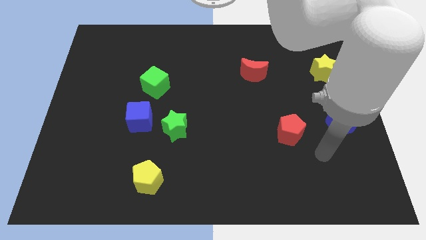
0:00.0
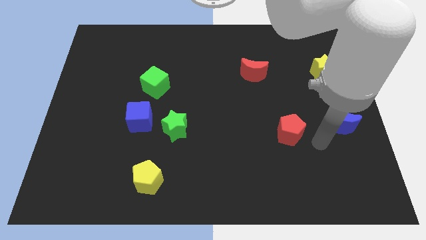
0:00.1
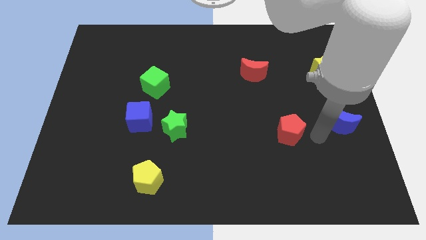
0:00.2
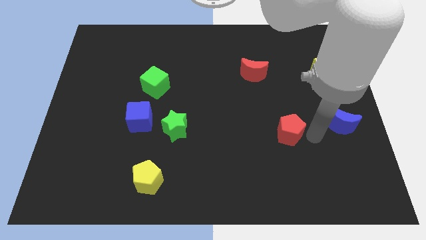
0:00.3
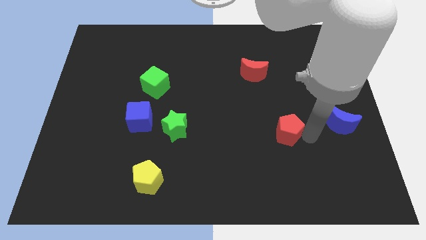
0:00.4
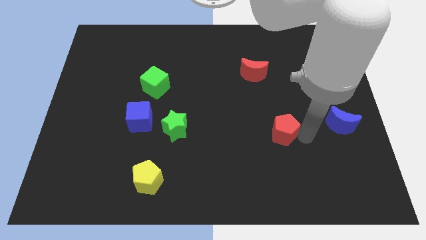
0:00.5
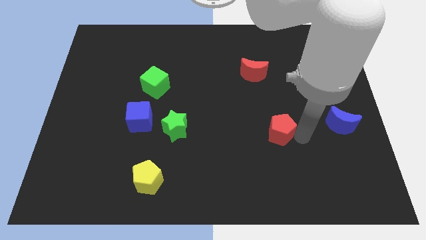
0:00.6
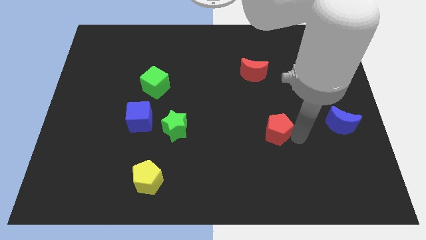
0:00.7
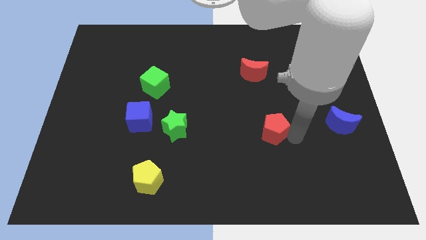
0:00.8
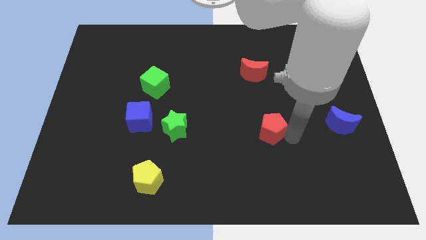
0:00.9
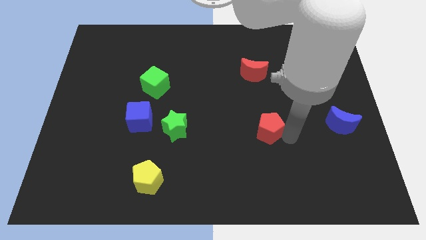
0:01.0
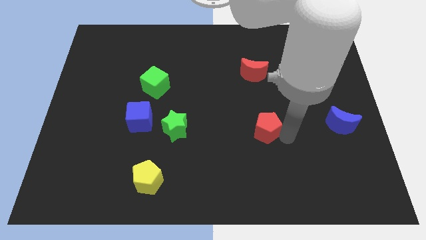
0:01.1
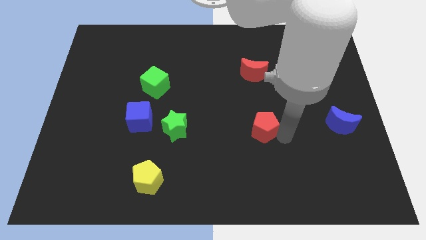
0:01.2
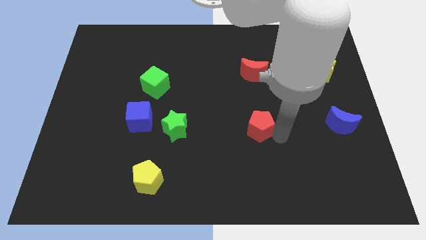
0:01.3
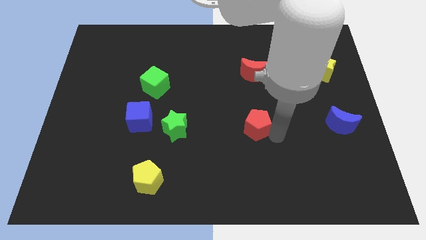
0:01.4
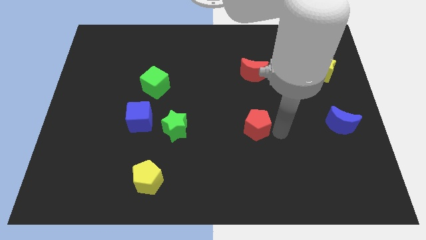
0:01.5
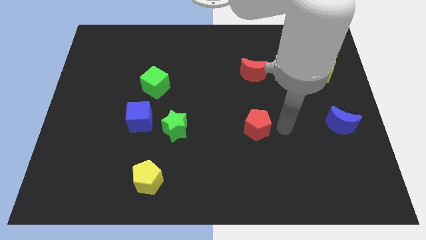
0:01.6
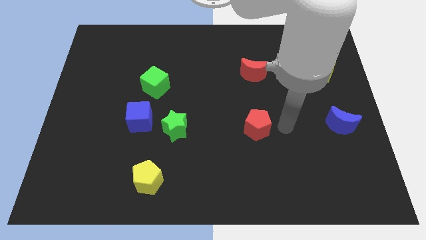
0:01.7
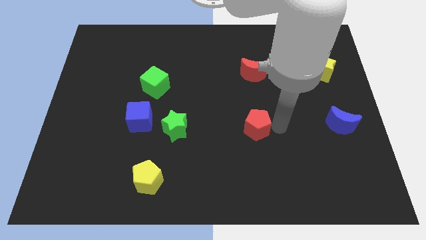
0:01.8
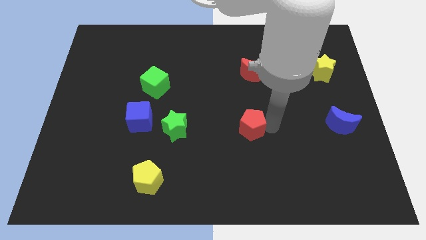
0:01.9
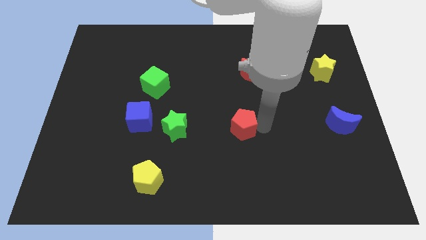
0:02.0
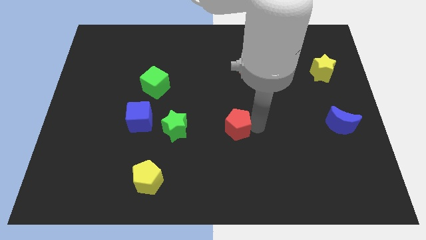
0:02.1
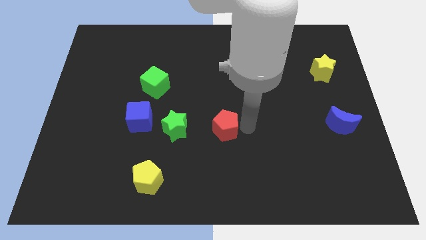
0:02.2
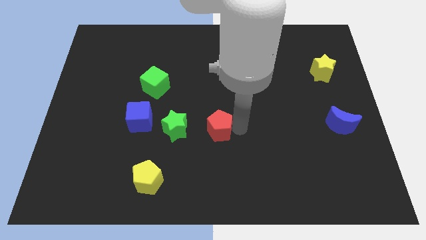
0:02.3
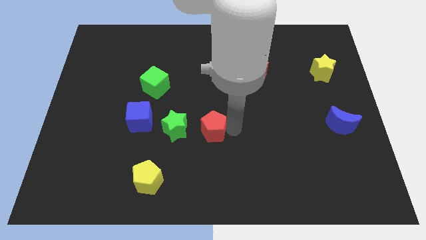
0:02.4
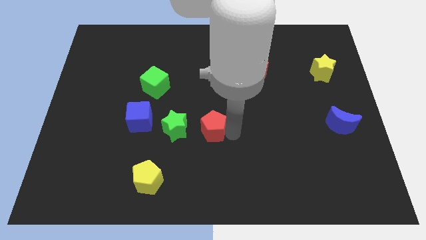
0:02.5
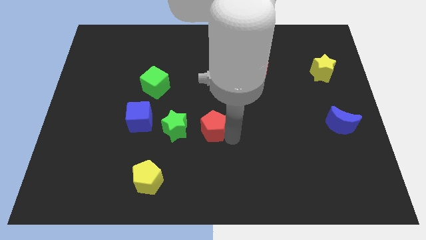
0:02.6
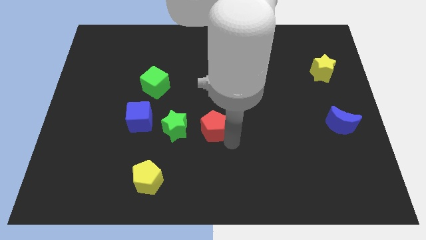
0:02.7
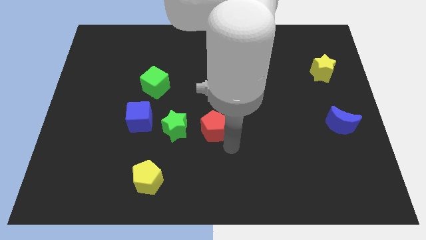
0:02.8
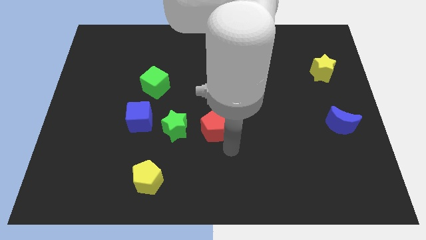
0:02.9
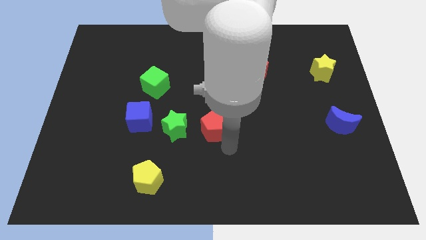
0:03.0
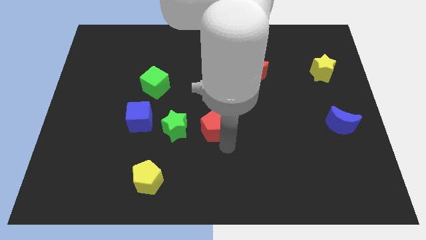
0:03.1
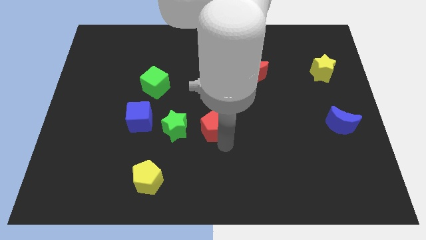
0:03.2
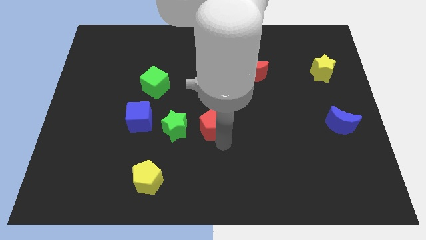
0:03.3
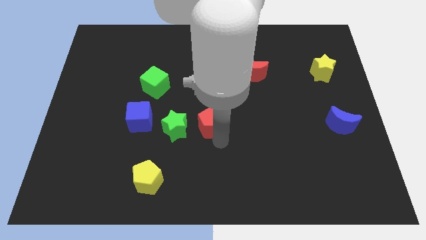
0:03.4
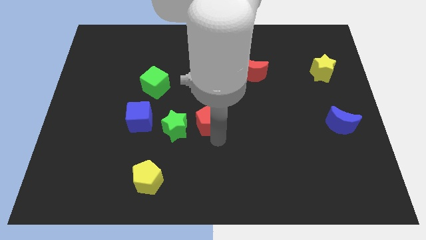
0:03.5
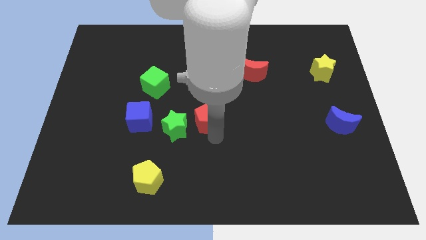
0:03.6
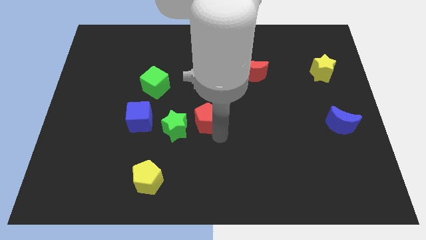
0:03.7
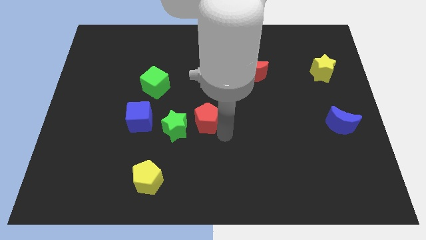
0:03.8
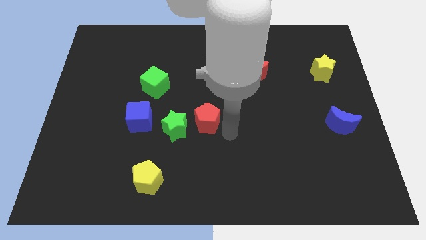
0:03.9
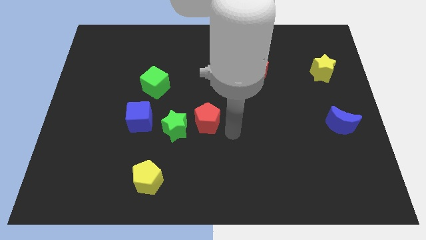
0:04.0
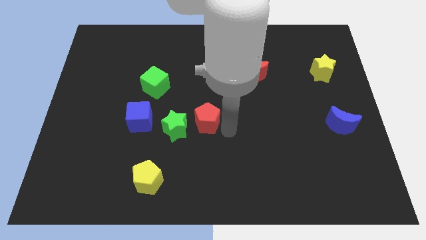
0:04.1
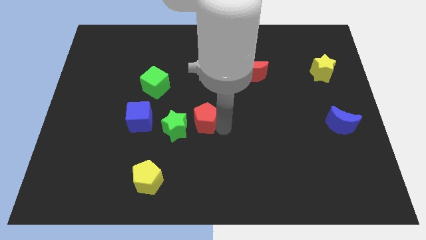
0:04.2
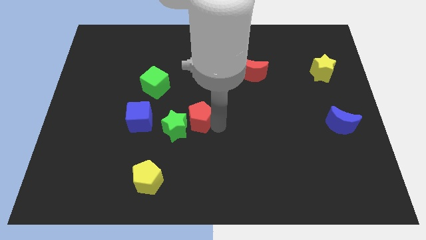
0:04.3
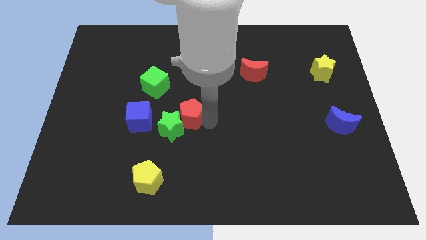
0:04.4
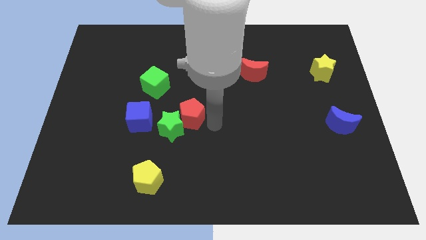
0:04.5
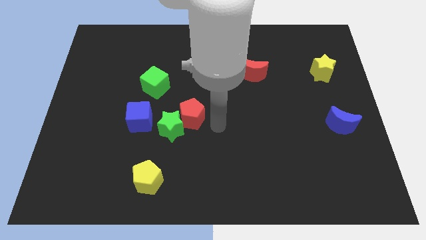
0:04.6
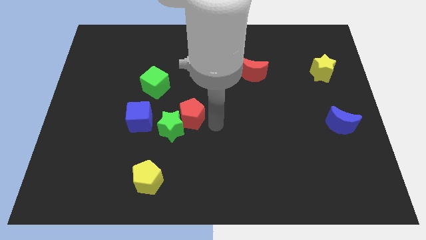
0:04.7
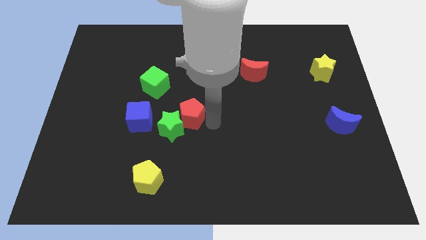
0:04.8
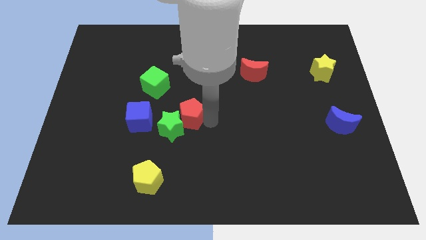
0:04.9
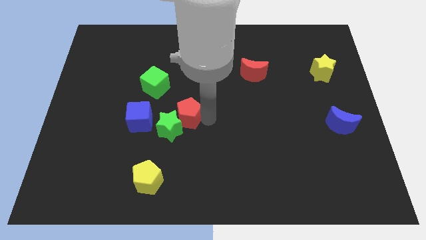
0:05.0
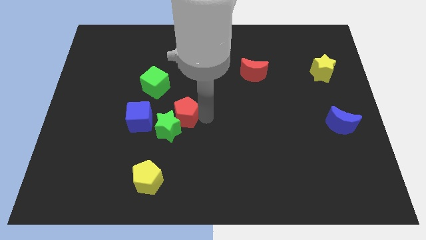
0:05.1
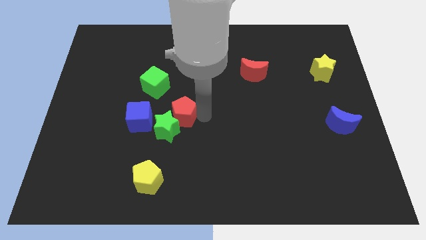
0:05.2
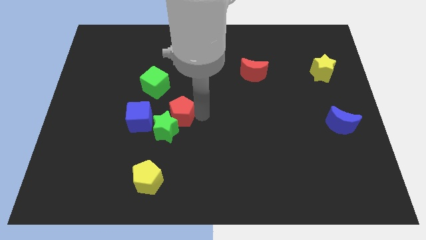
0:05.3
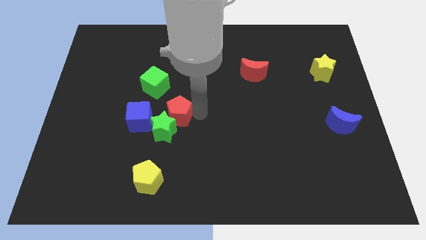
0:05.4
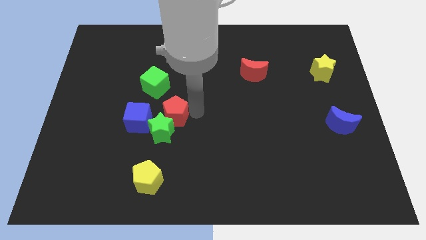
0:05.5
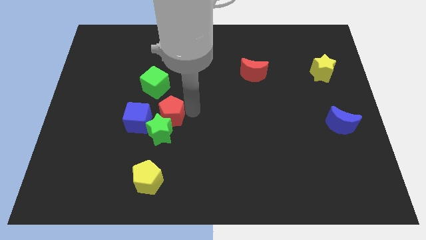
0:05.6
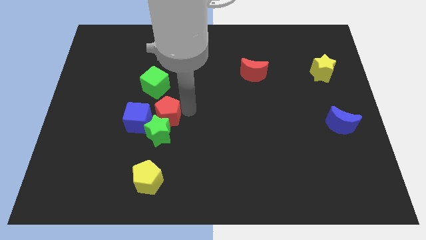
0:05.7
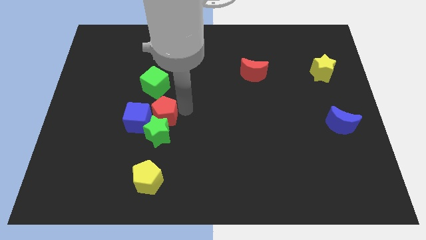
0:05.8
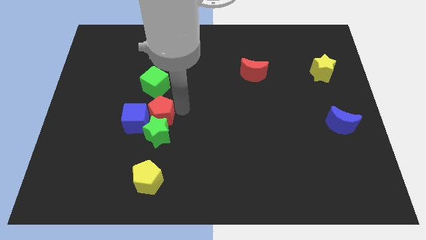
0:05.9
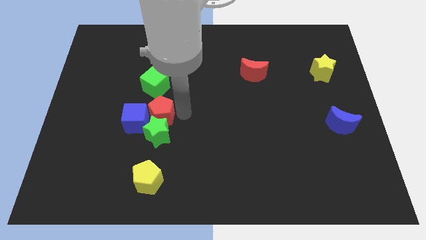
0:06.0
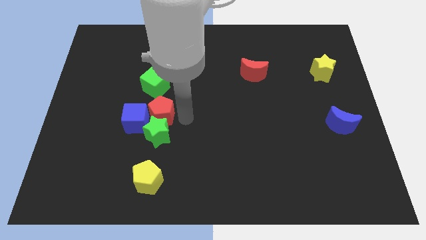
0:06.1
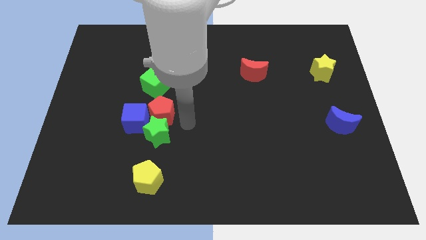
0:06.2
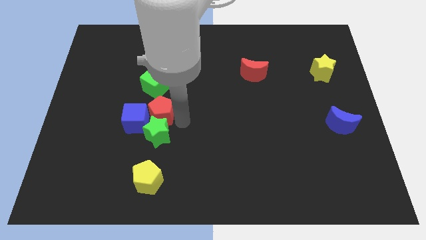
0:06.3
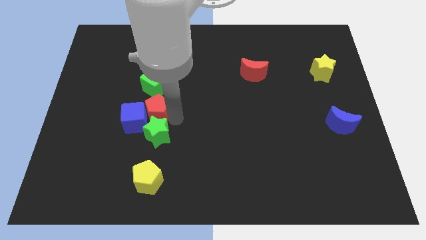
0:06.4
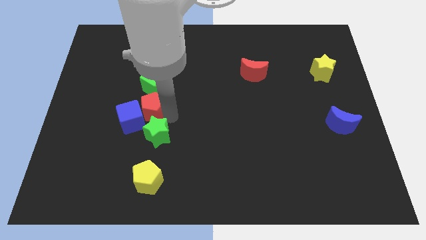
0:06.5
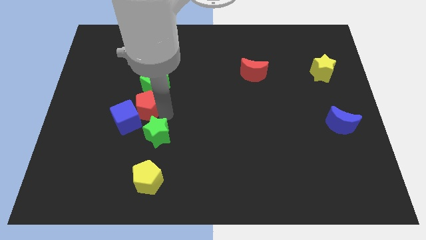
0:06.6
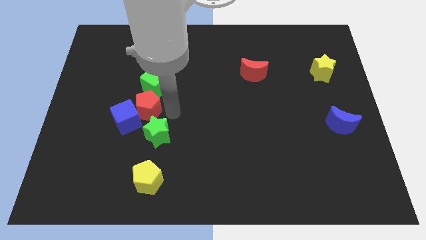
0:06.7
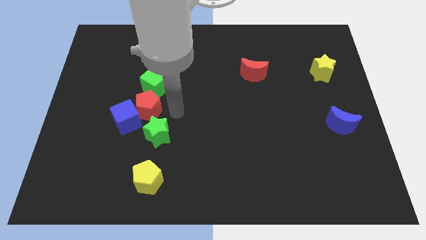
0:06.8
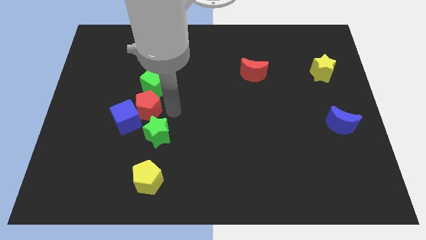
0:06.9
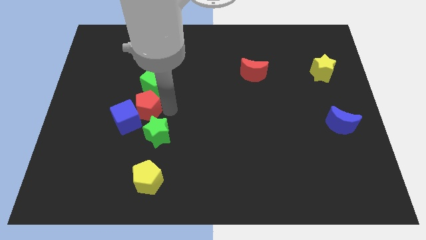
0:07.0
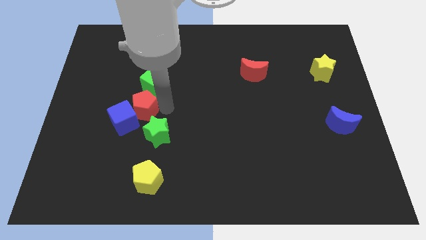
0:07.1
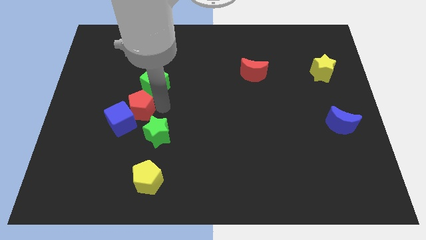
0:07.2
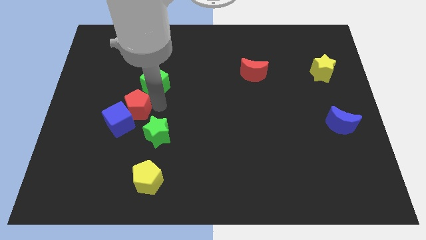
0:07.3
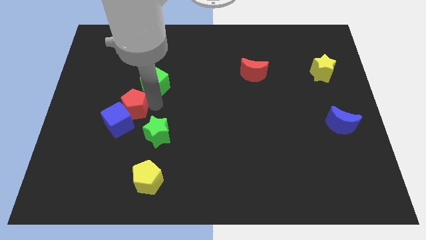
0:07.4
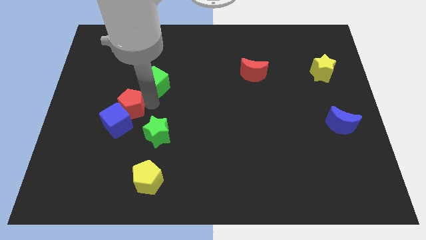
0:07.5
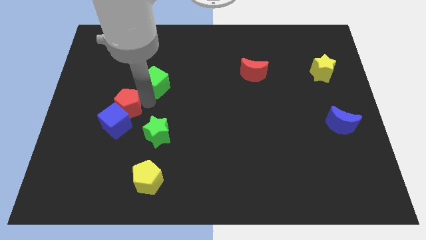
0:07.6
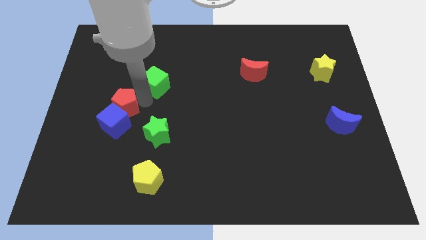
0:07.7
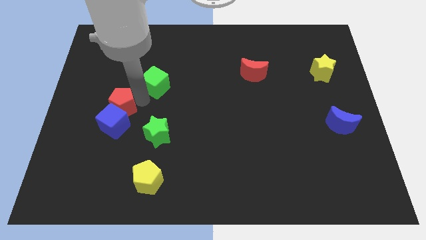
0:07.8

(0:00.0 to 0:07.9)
slide the red pentagon diagonally up and to the left of the blue cube
